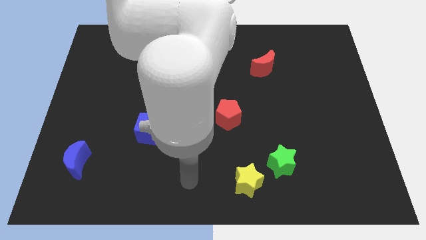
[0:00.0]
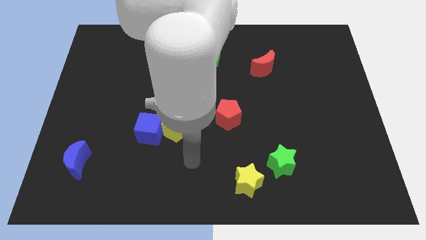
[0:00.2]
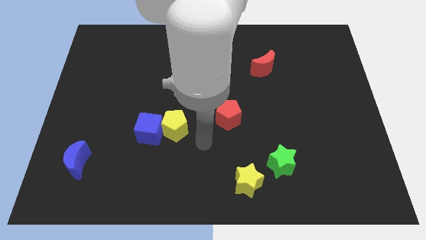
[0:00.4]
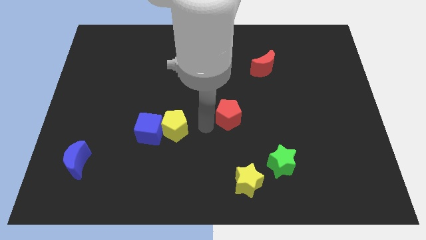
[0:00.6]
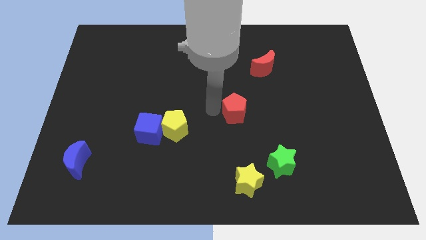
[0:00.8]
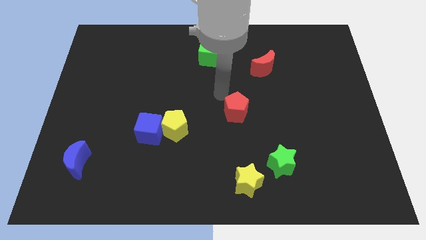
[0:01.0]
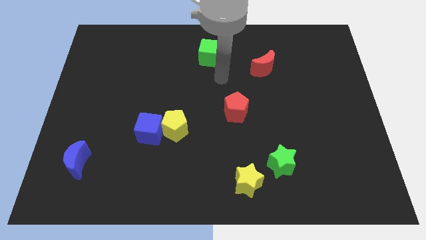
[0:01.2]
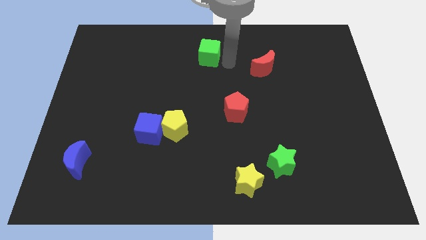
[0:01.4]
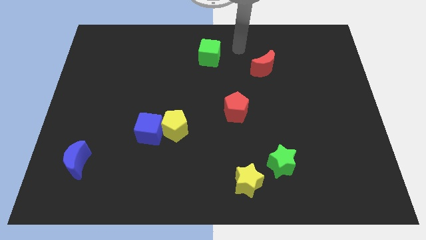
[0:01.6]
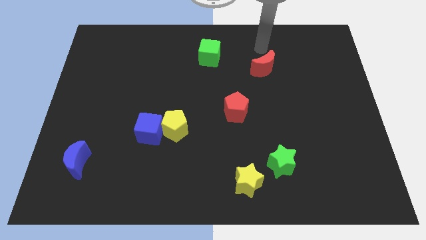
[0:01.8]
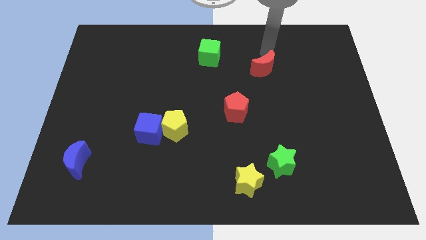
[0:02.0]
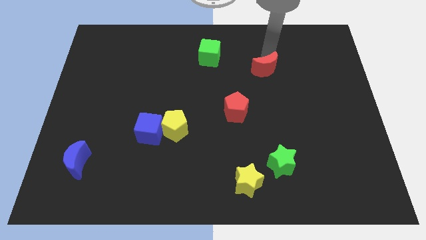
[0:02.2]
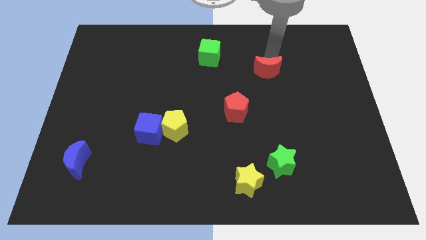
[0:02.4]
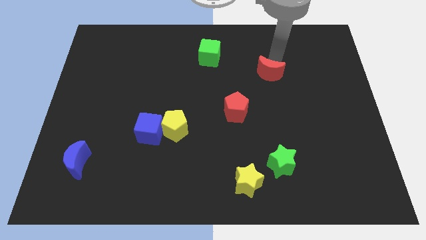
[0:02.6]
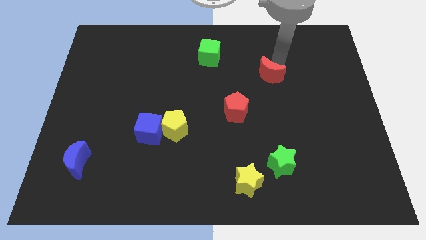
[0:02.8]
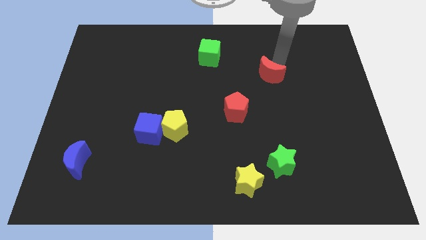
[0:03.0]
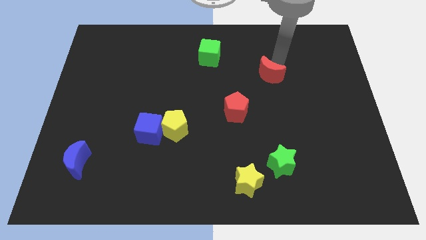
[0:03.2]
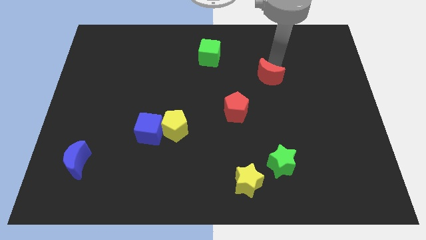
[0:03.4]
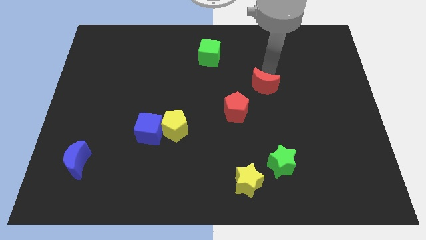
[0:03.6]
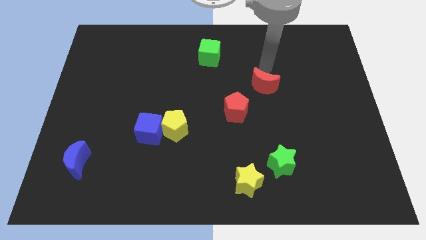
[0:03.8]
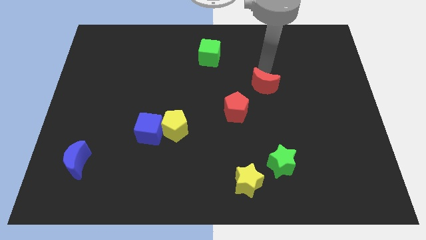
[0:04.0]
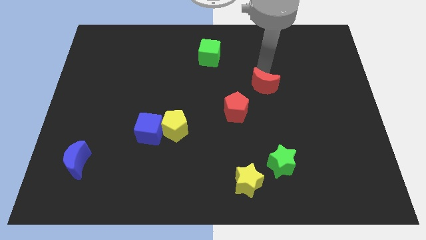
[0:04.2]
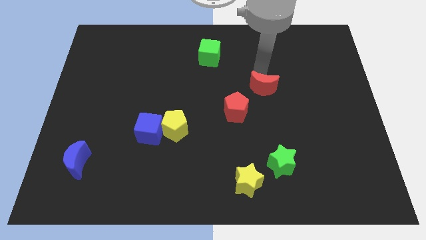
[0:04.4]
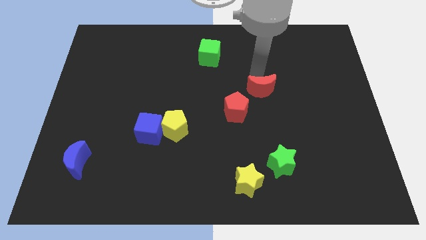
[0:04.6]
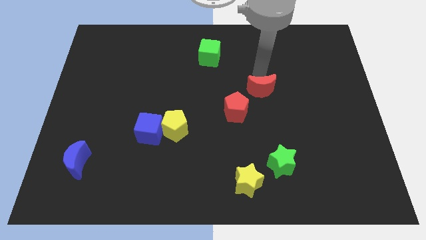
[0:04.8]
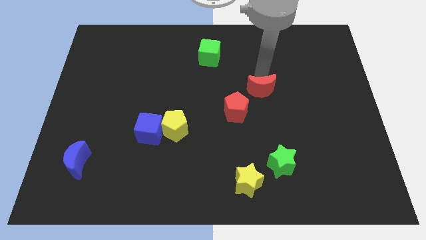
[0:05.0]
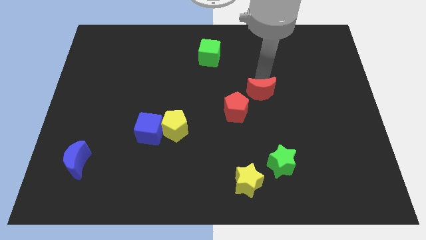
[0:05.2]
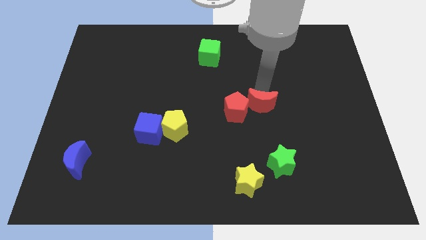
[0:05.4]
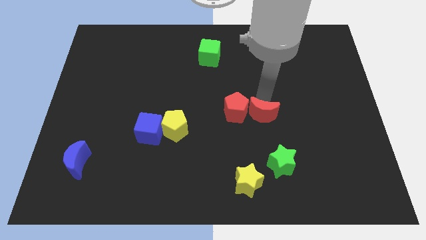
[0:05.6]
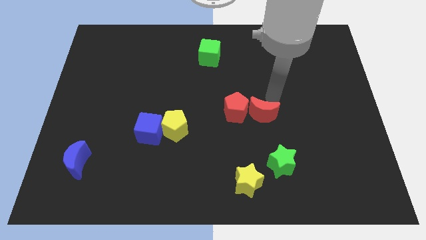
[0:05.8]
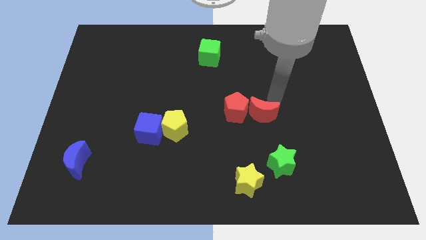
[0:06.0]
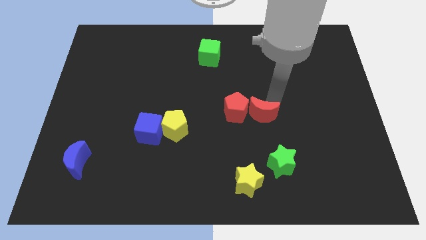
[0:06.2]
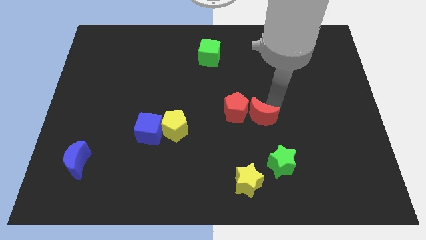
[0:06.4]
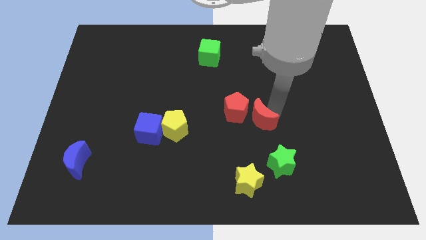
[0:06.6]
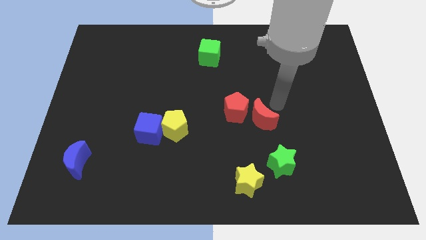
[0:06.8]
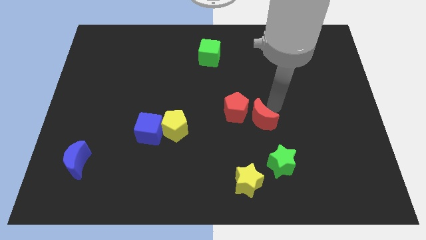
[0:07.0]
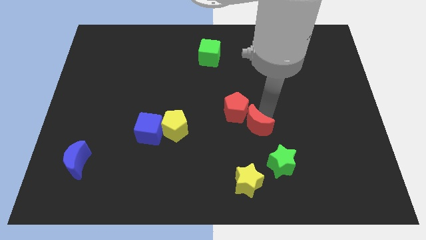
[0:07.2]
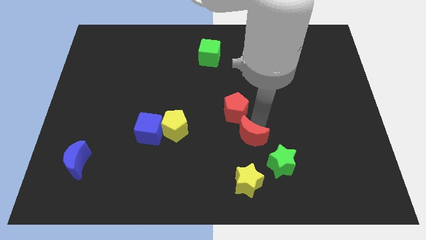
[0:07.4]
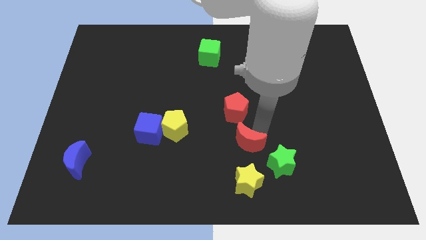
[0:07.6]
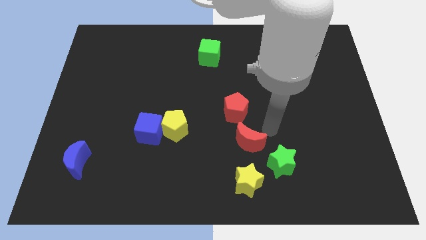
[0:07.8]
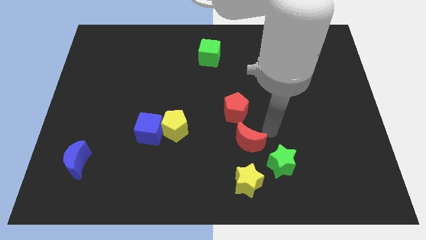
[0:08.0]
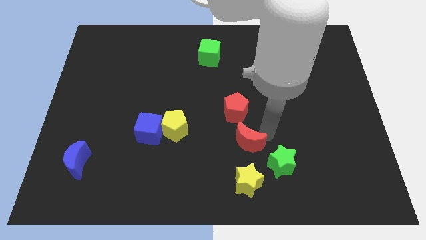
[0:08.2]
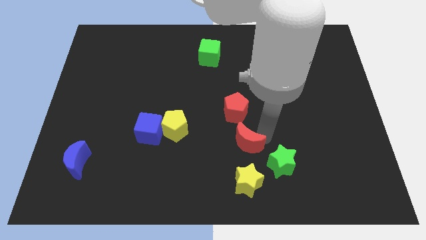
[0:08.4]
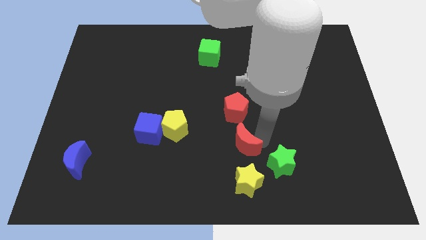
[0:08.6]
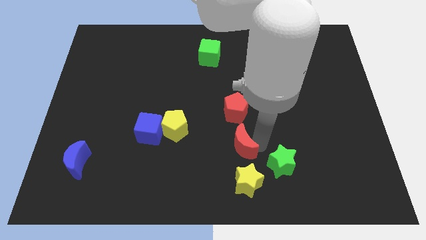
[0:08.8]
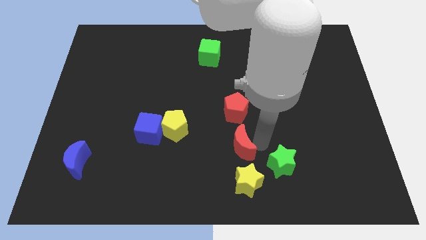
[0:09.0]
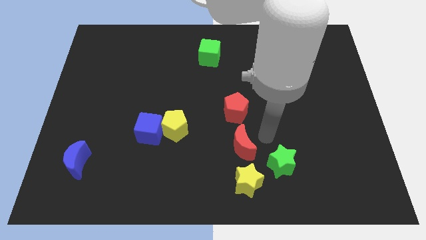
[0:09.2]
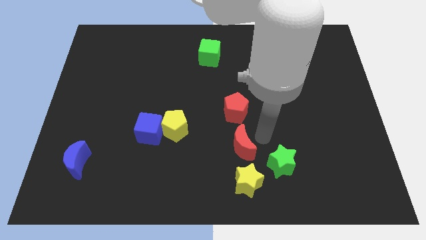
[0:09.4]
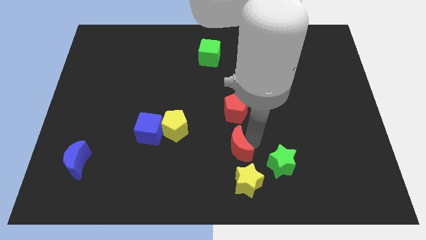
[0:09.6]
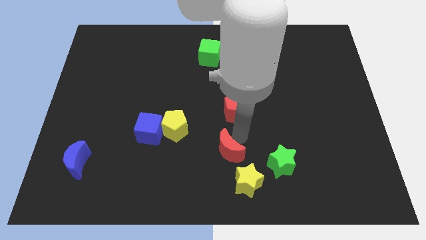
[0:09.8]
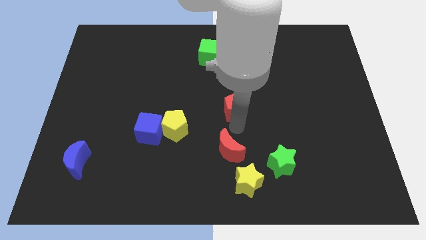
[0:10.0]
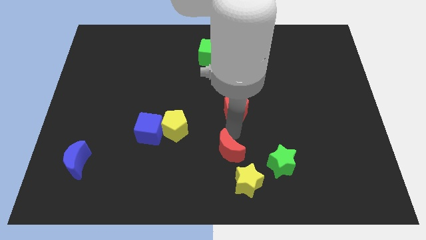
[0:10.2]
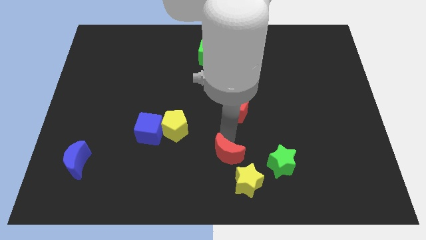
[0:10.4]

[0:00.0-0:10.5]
put the red moon to the bottom side

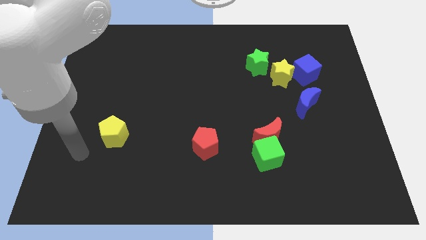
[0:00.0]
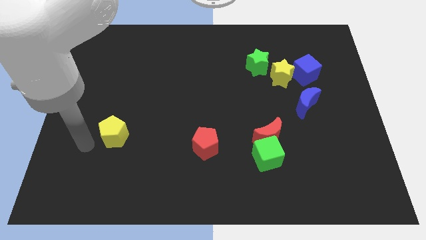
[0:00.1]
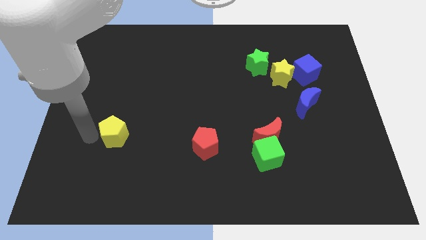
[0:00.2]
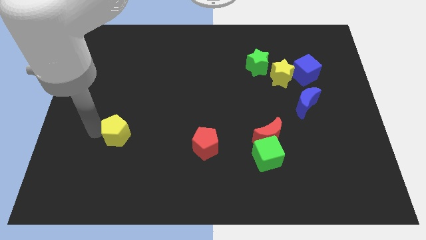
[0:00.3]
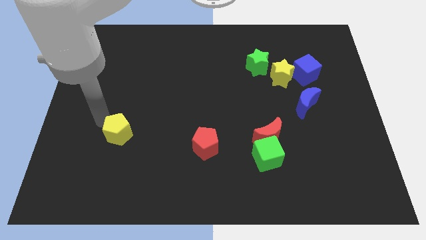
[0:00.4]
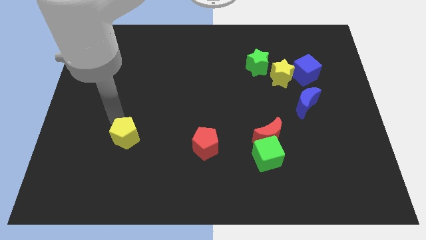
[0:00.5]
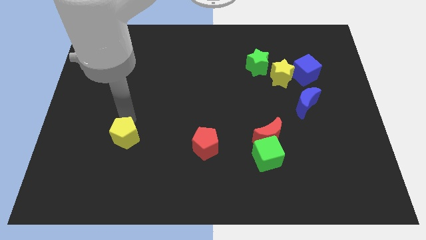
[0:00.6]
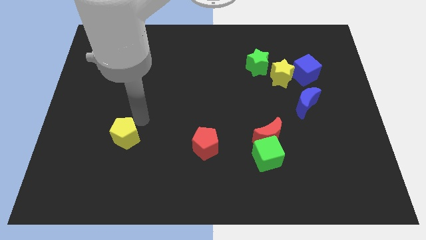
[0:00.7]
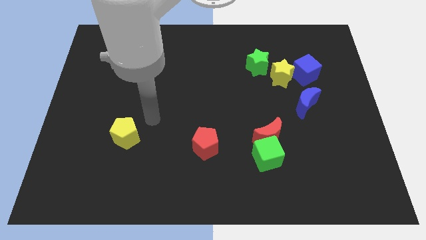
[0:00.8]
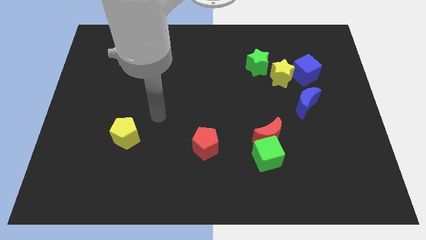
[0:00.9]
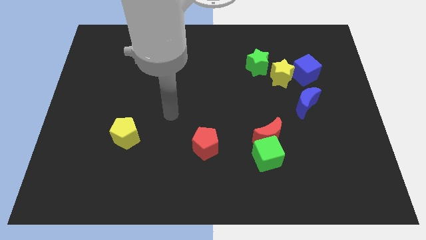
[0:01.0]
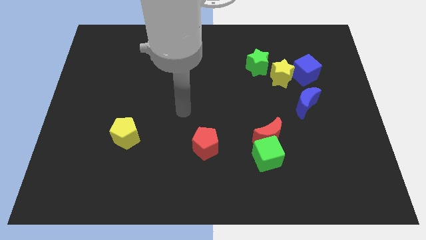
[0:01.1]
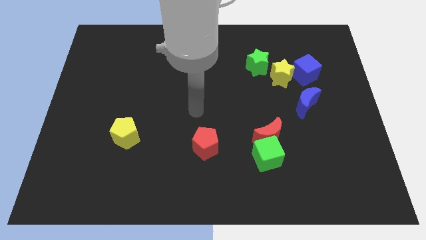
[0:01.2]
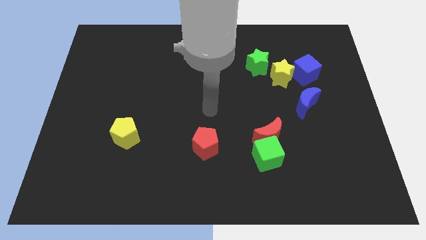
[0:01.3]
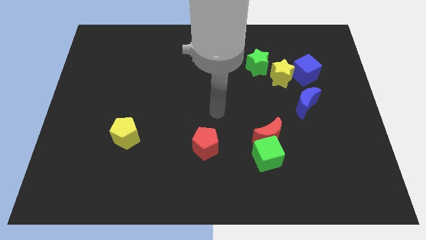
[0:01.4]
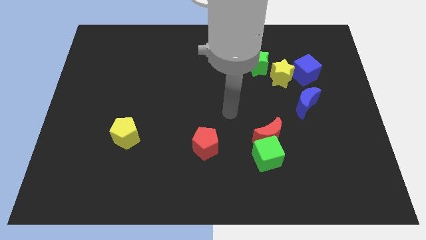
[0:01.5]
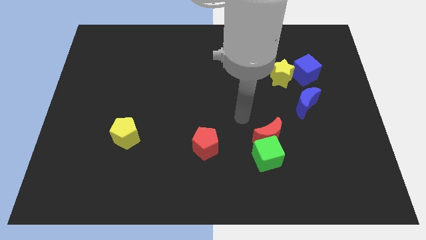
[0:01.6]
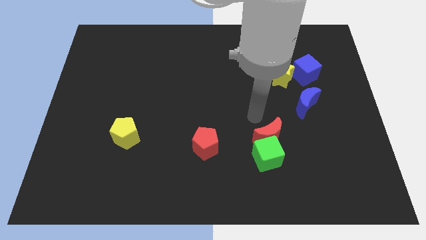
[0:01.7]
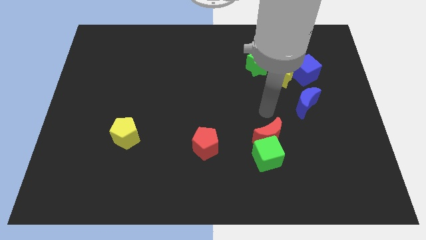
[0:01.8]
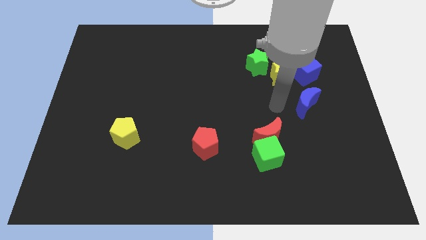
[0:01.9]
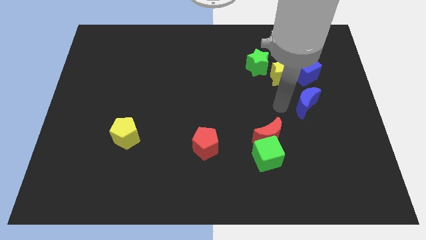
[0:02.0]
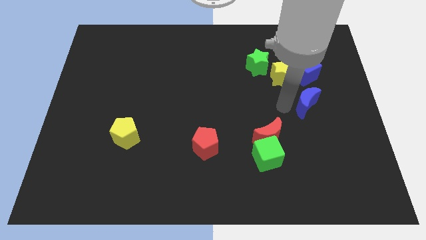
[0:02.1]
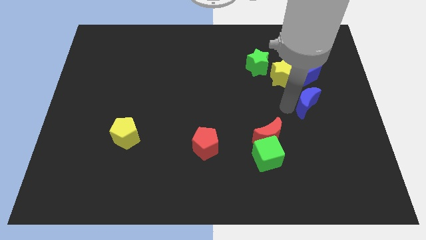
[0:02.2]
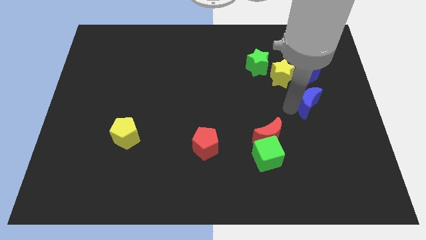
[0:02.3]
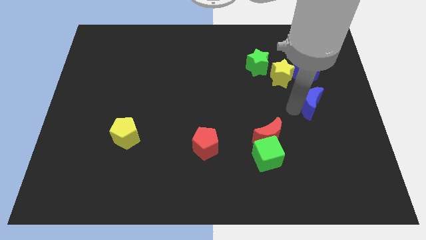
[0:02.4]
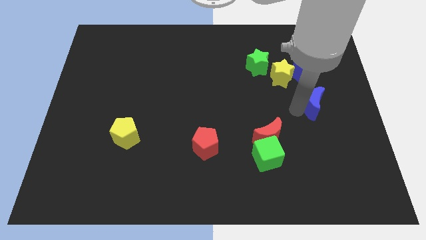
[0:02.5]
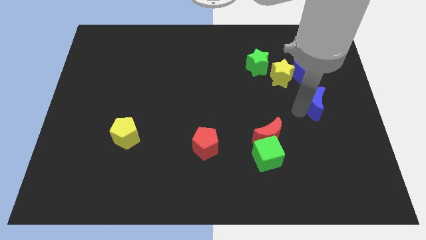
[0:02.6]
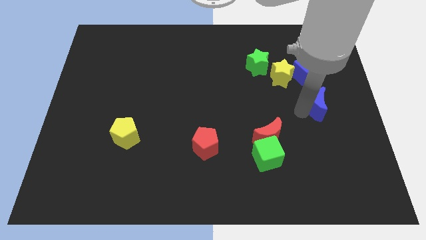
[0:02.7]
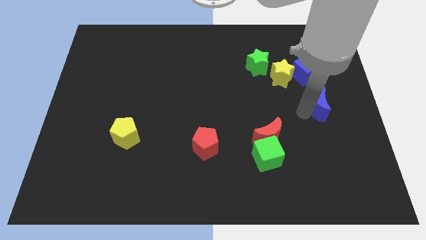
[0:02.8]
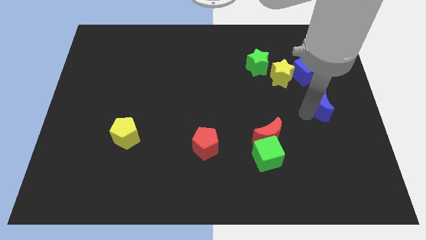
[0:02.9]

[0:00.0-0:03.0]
slide the blue moon to the right side of the board
